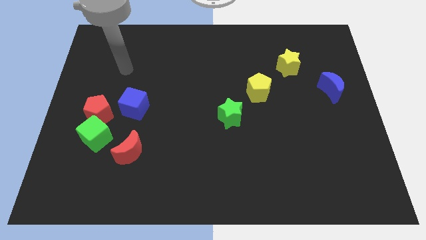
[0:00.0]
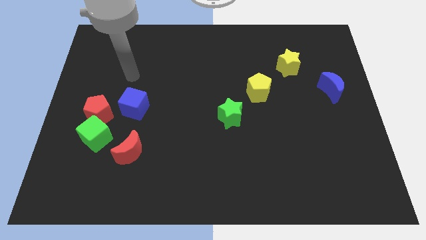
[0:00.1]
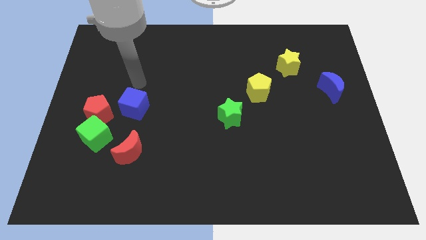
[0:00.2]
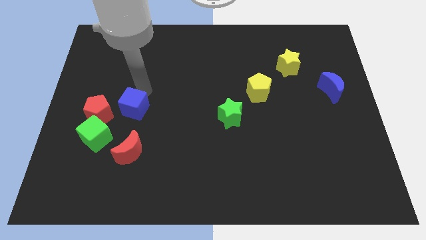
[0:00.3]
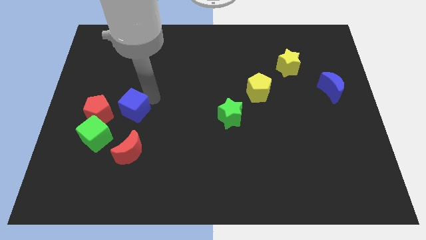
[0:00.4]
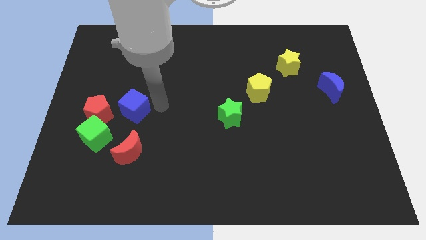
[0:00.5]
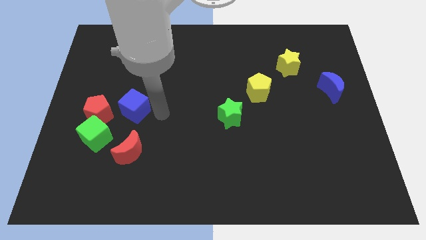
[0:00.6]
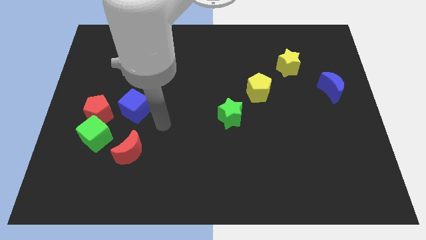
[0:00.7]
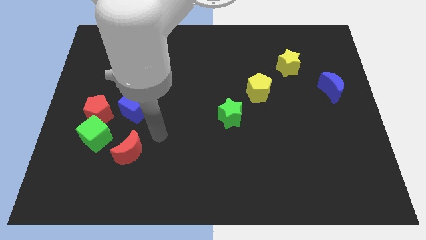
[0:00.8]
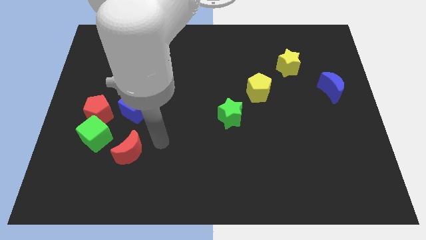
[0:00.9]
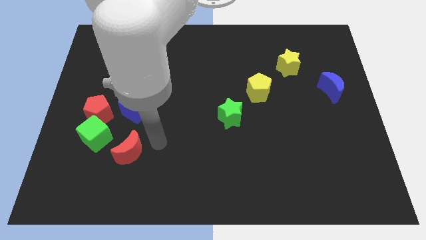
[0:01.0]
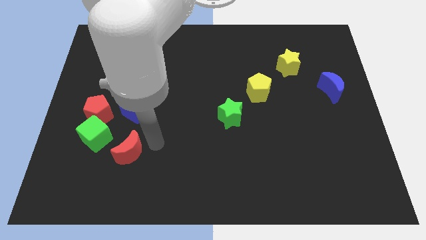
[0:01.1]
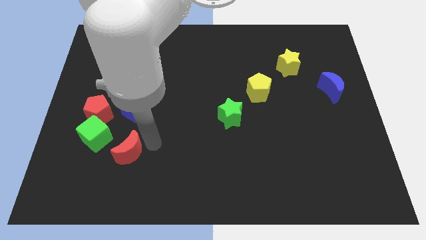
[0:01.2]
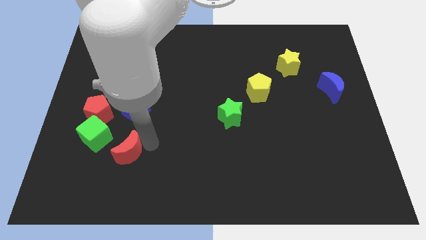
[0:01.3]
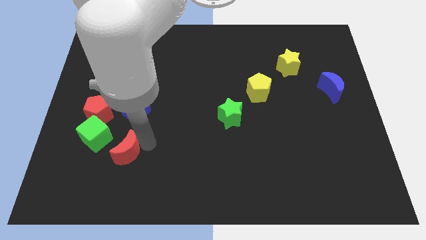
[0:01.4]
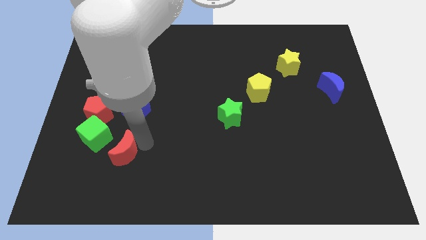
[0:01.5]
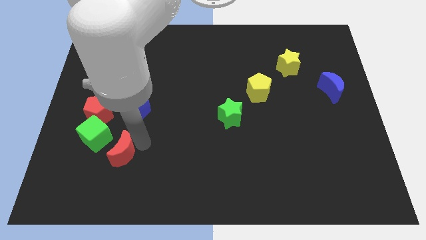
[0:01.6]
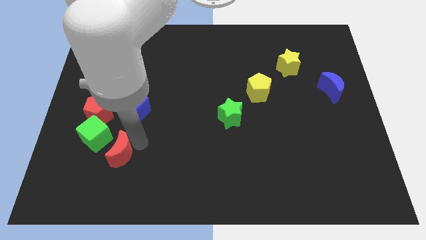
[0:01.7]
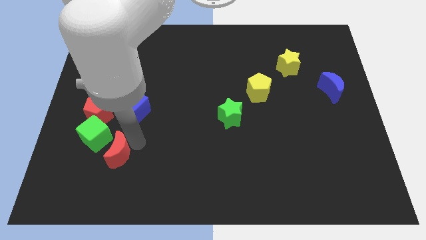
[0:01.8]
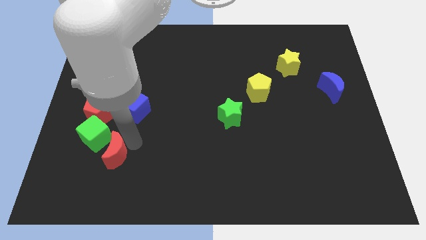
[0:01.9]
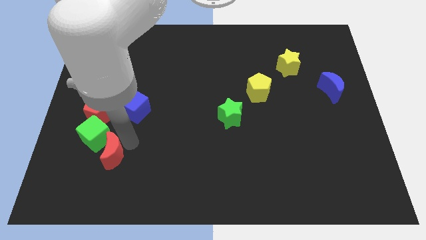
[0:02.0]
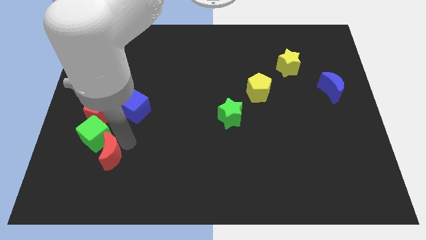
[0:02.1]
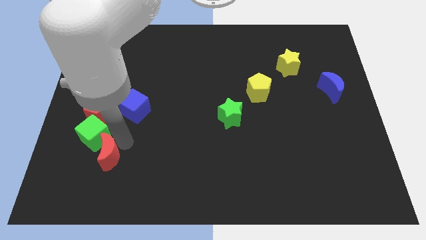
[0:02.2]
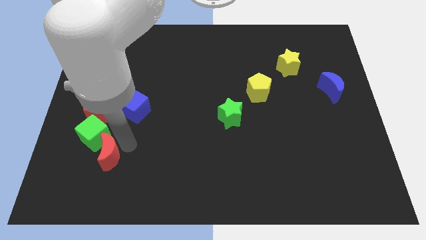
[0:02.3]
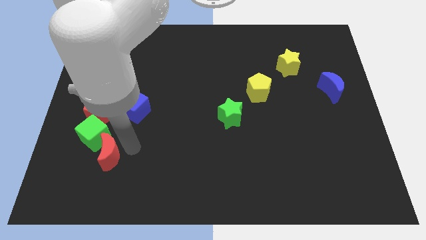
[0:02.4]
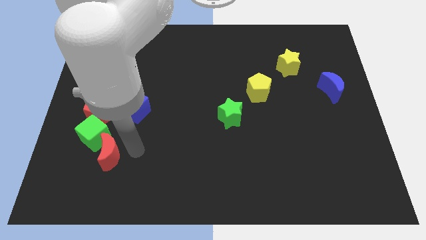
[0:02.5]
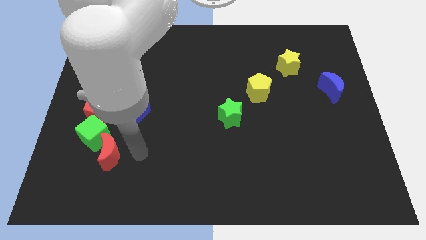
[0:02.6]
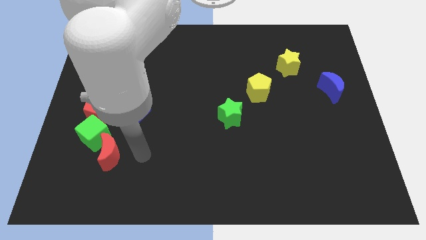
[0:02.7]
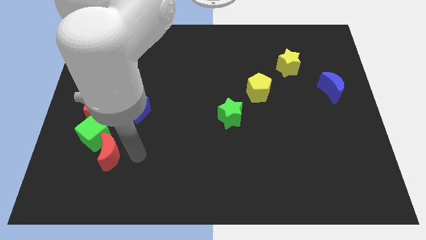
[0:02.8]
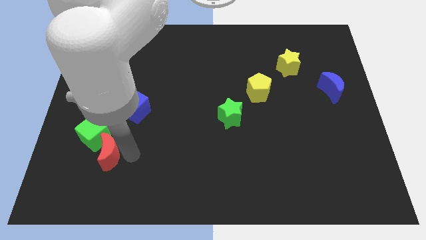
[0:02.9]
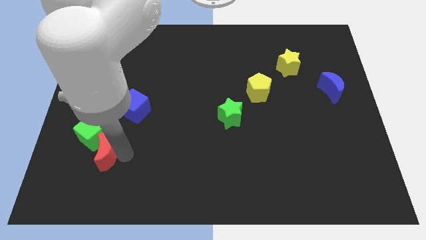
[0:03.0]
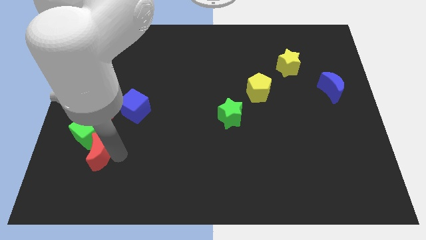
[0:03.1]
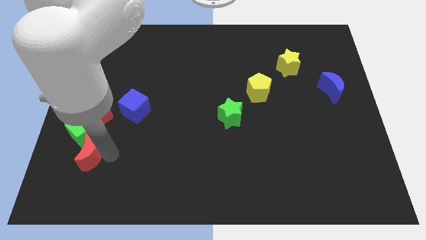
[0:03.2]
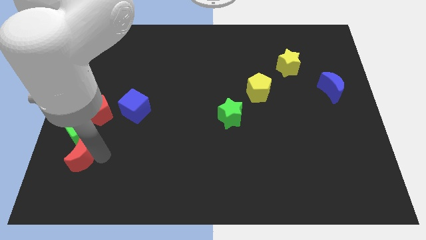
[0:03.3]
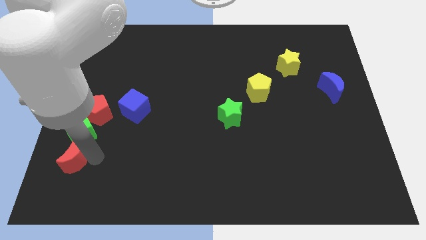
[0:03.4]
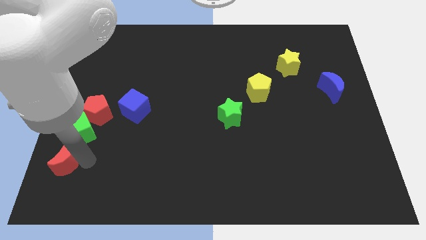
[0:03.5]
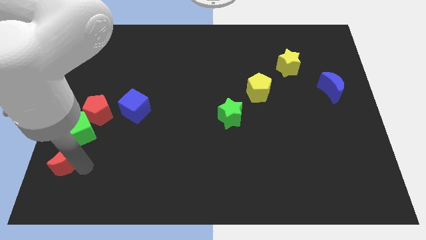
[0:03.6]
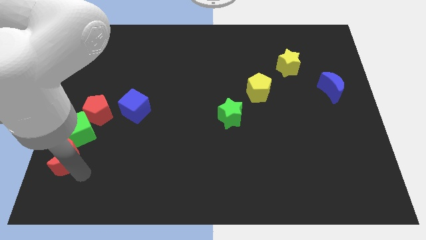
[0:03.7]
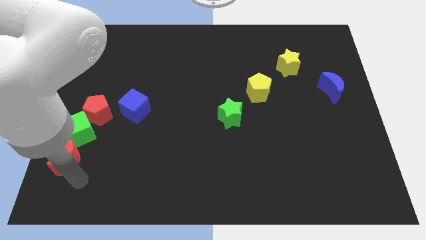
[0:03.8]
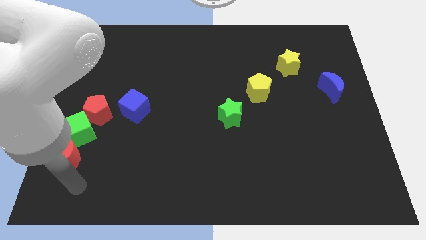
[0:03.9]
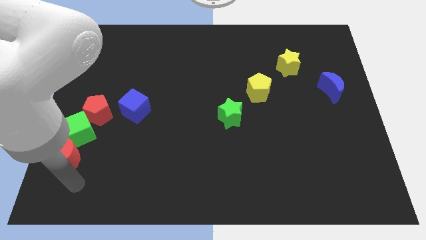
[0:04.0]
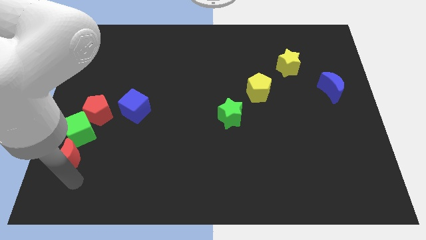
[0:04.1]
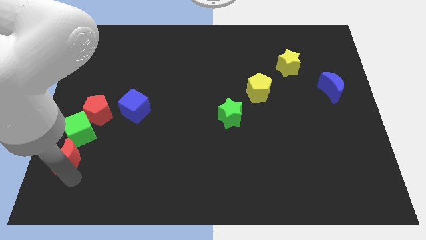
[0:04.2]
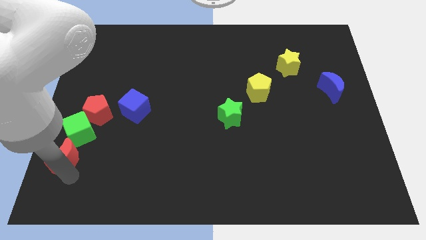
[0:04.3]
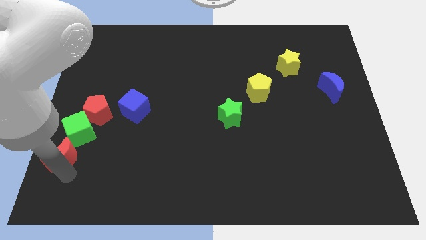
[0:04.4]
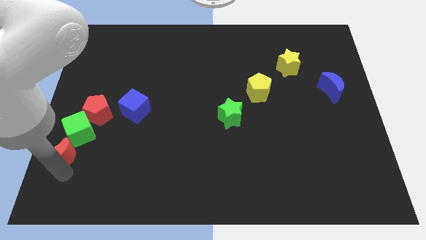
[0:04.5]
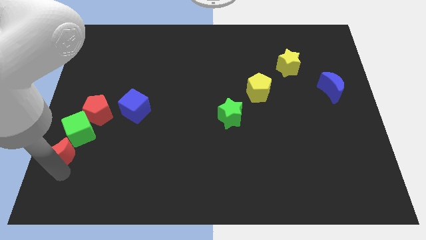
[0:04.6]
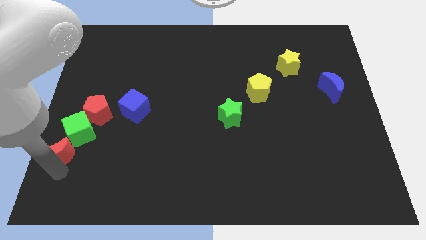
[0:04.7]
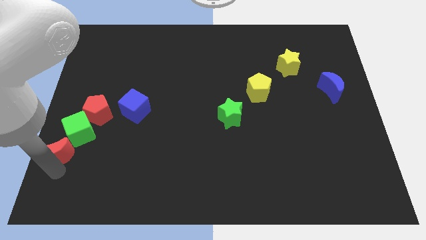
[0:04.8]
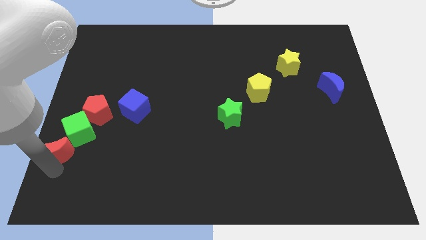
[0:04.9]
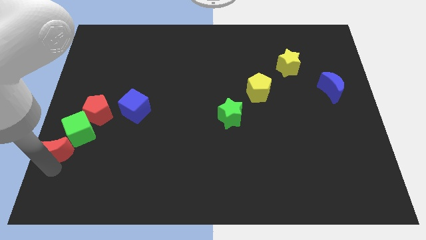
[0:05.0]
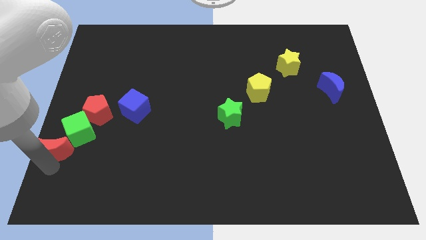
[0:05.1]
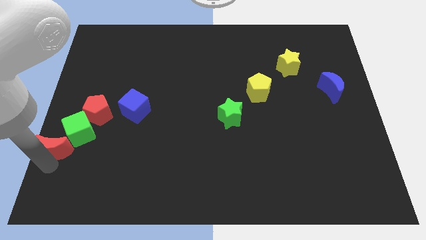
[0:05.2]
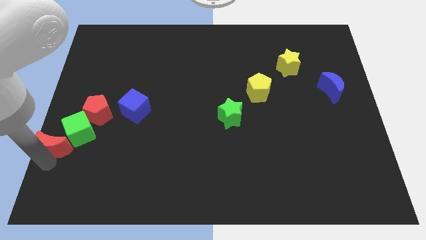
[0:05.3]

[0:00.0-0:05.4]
put the red moon to the center left

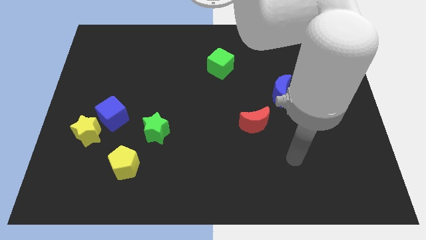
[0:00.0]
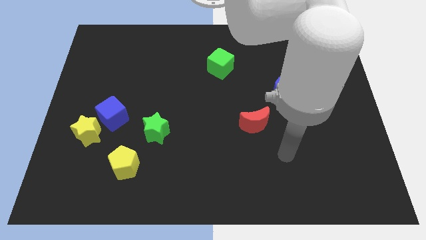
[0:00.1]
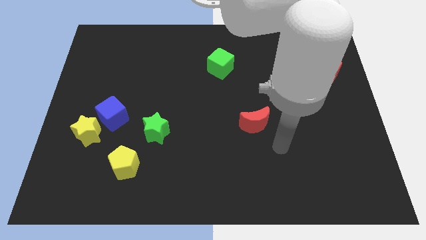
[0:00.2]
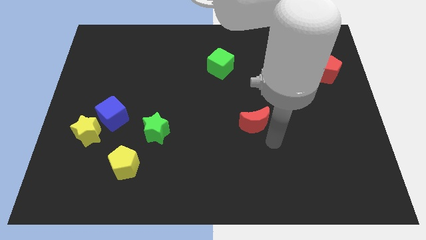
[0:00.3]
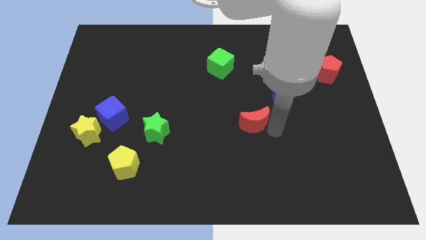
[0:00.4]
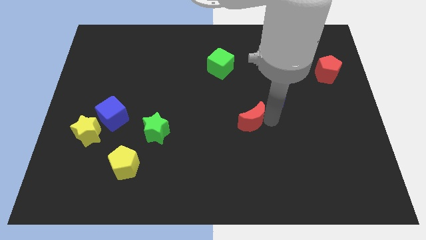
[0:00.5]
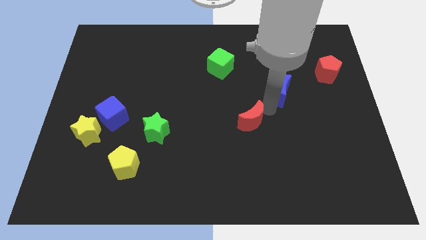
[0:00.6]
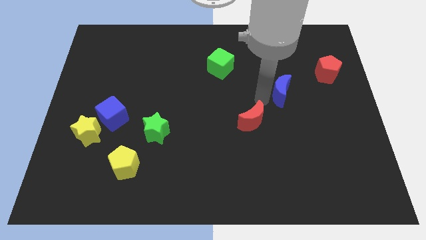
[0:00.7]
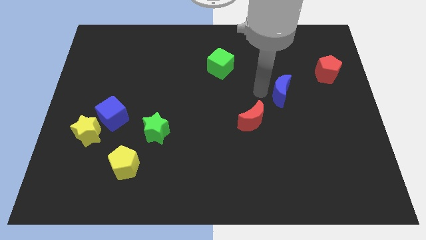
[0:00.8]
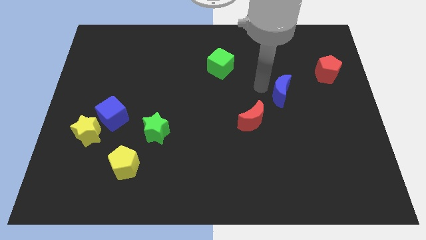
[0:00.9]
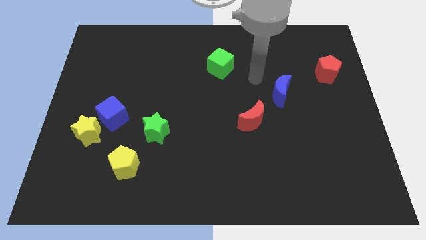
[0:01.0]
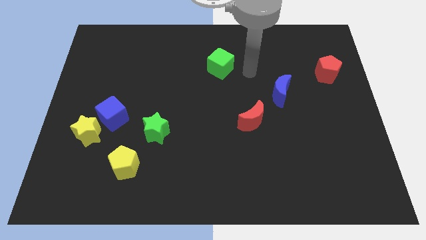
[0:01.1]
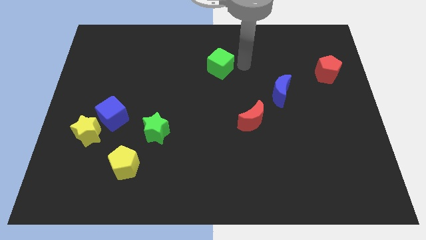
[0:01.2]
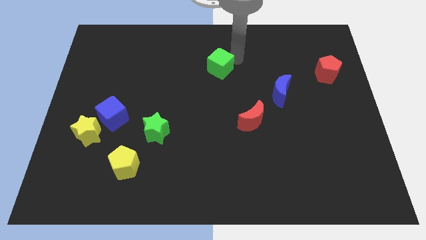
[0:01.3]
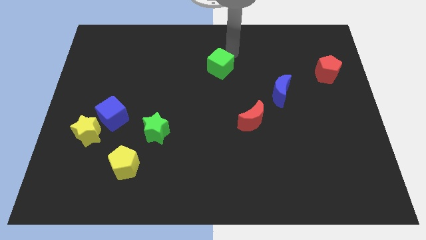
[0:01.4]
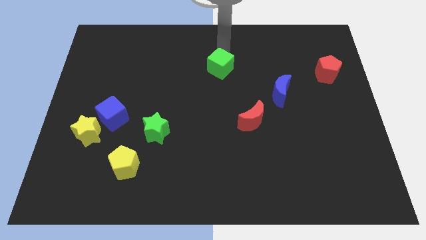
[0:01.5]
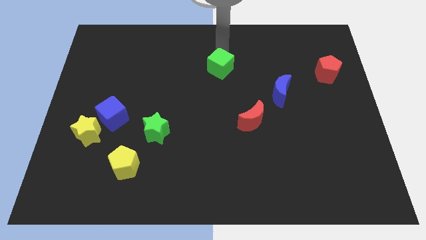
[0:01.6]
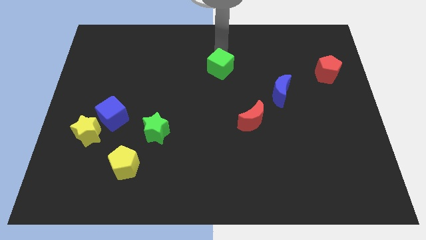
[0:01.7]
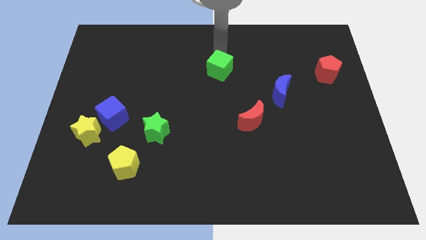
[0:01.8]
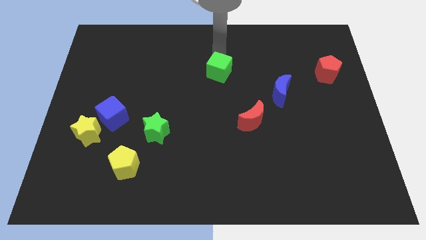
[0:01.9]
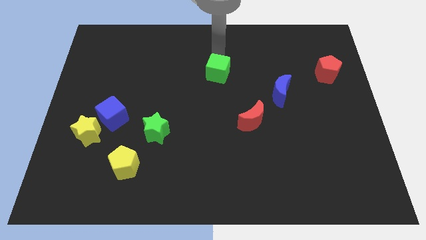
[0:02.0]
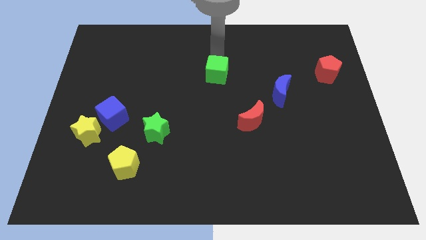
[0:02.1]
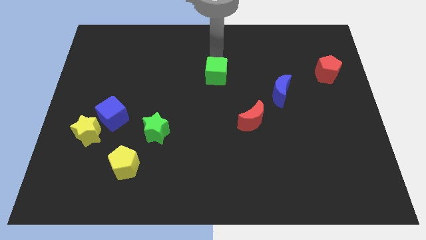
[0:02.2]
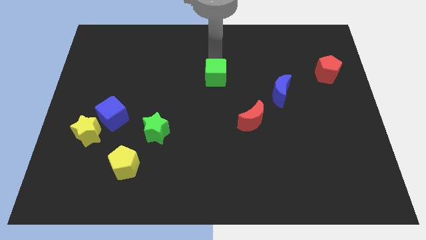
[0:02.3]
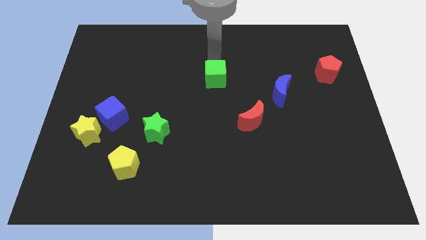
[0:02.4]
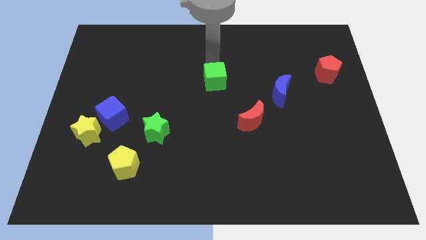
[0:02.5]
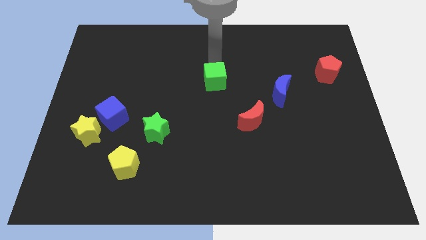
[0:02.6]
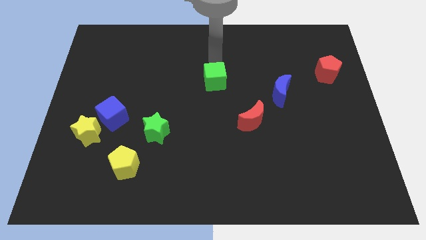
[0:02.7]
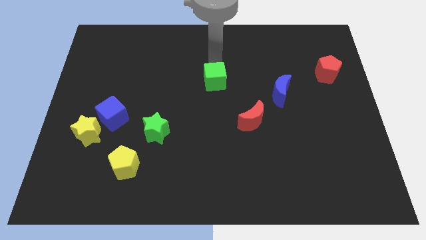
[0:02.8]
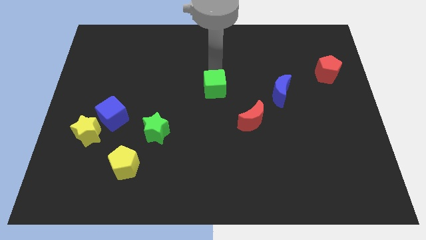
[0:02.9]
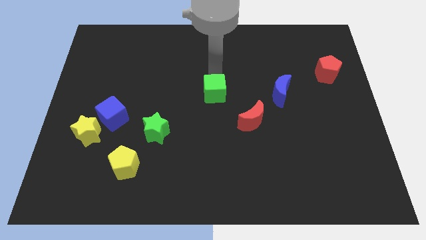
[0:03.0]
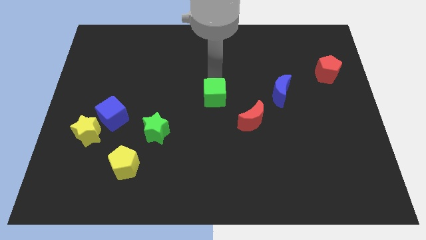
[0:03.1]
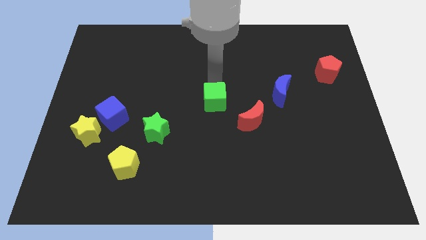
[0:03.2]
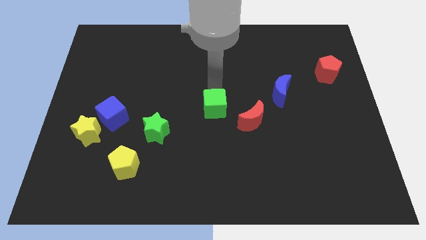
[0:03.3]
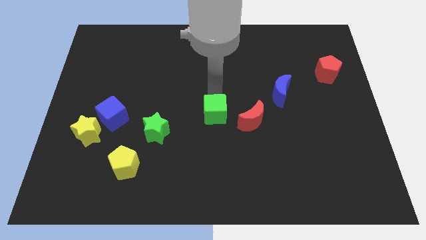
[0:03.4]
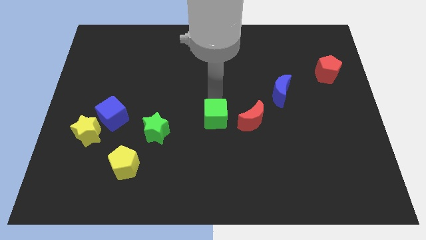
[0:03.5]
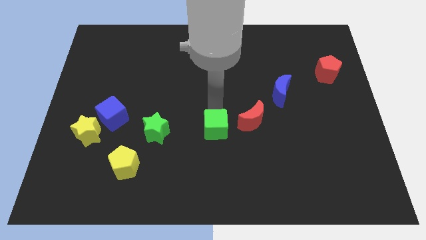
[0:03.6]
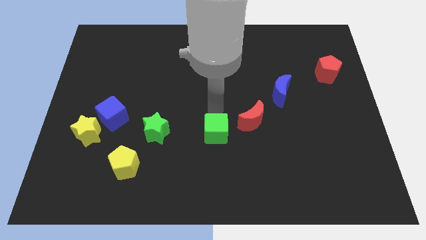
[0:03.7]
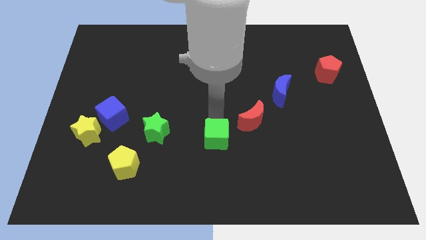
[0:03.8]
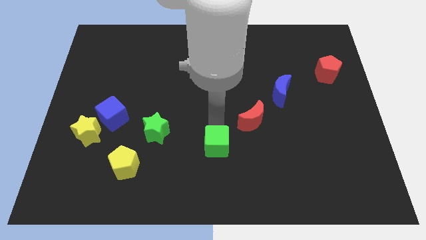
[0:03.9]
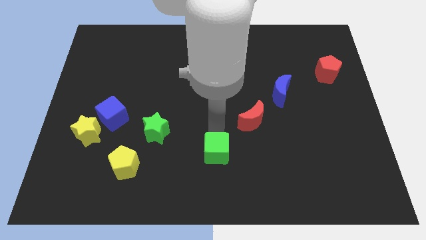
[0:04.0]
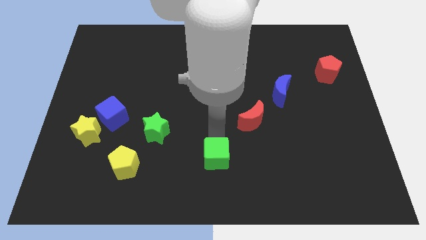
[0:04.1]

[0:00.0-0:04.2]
move the green cube to the bottom side
